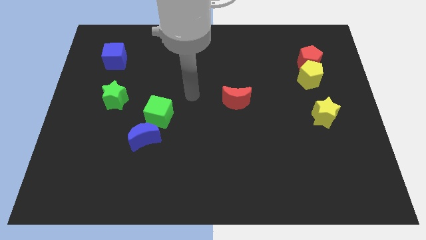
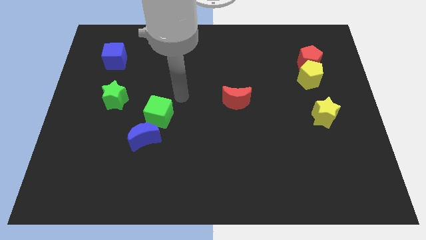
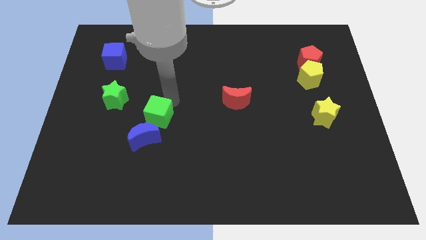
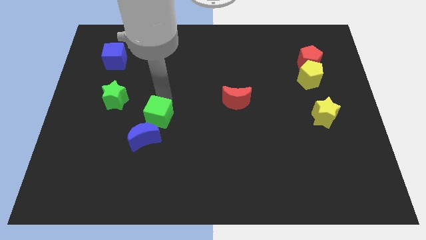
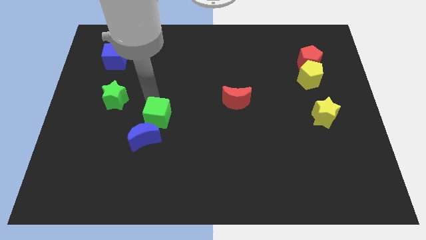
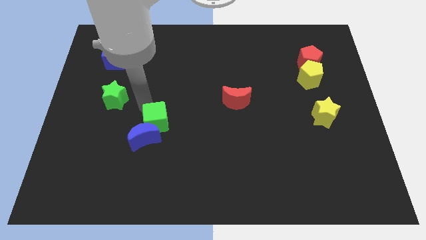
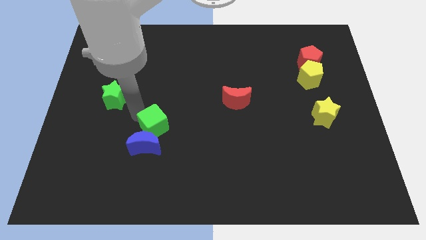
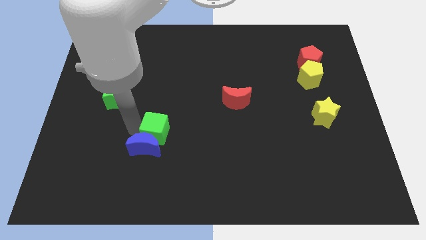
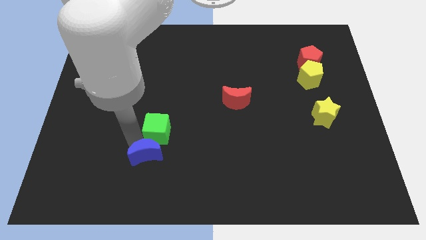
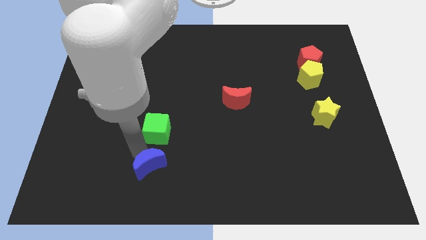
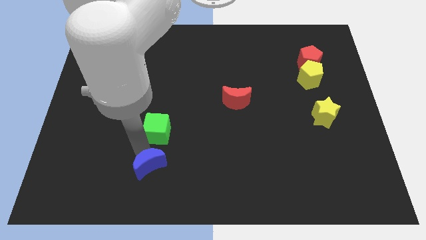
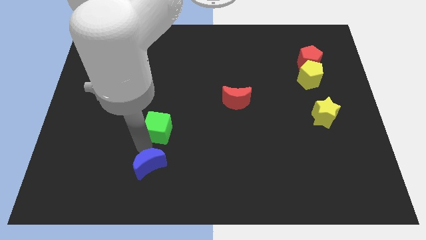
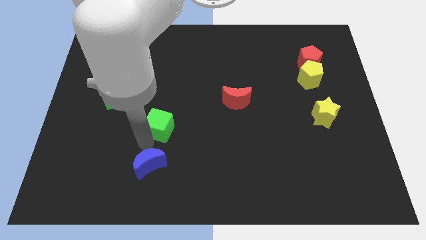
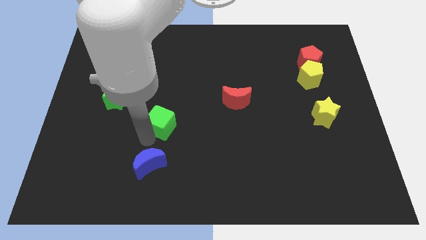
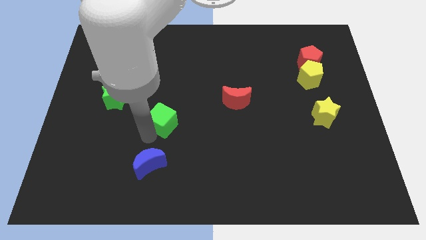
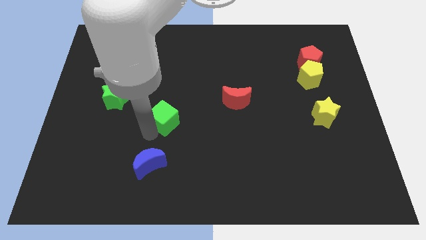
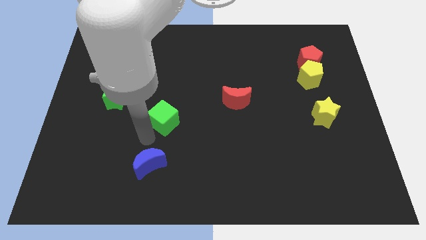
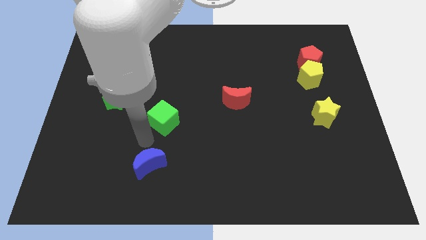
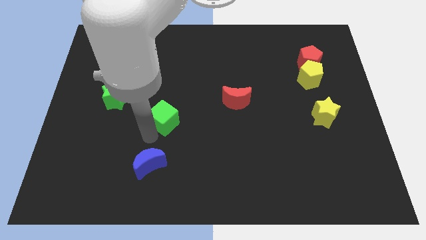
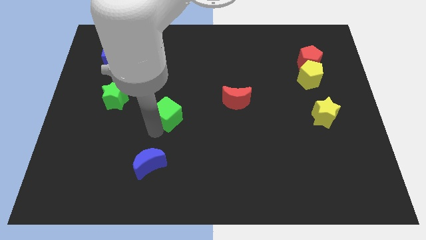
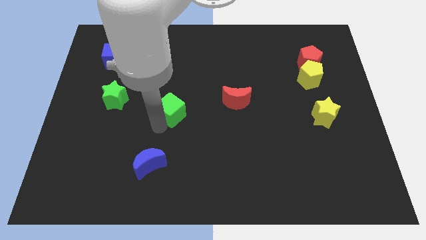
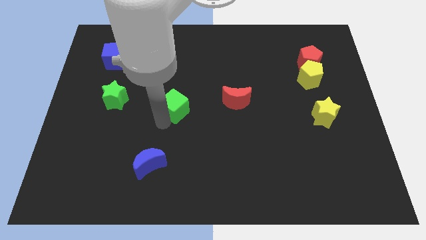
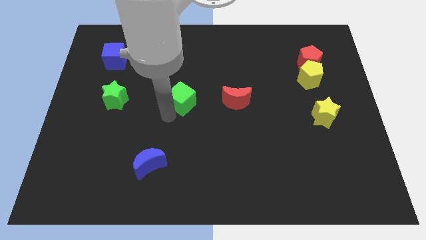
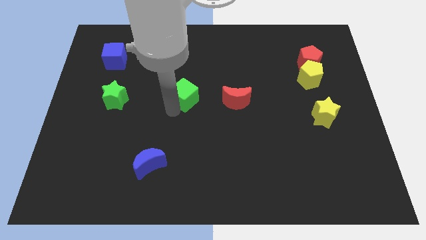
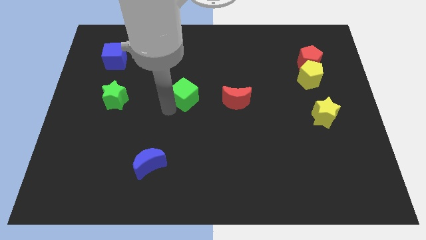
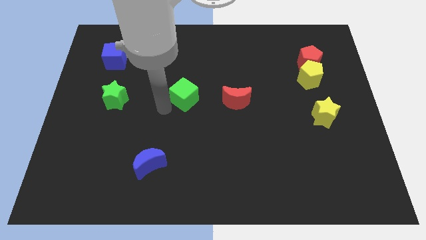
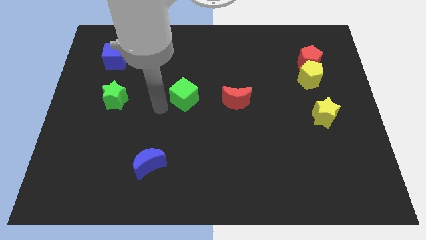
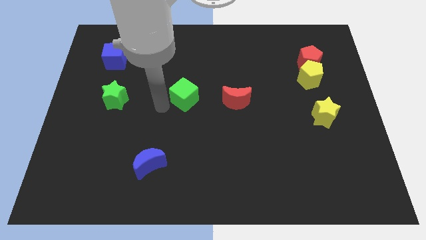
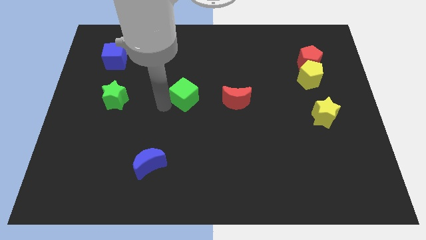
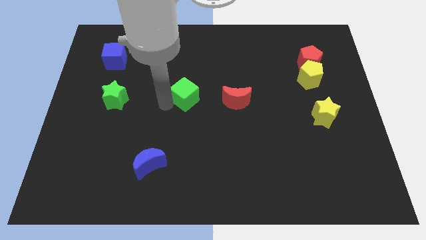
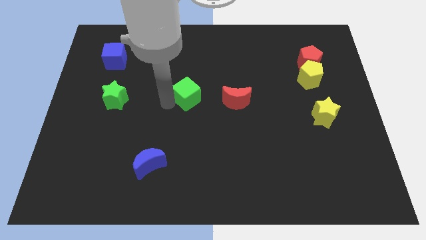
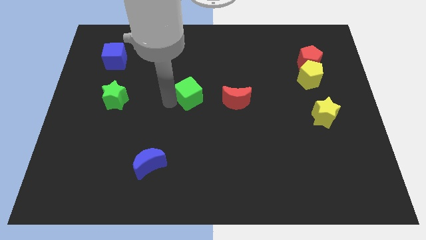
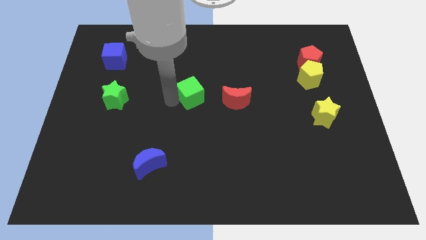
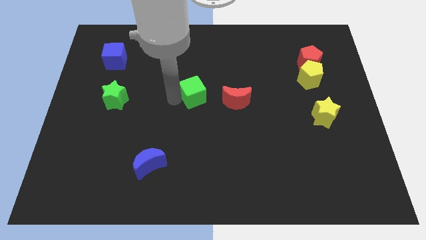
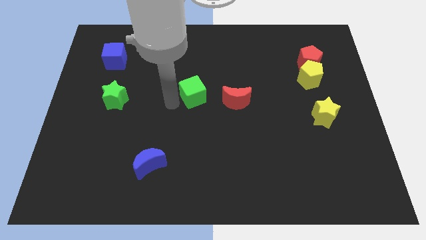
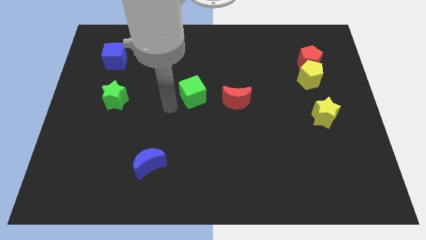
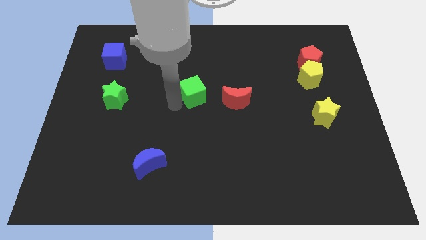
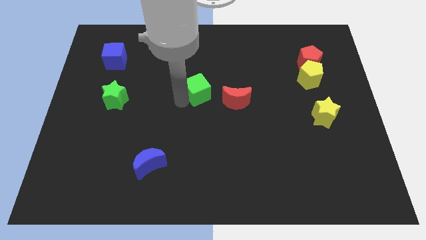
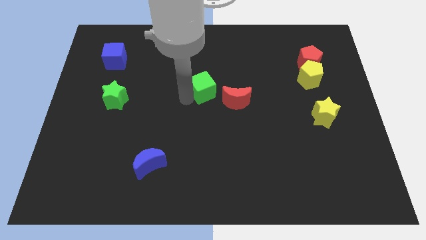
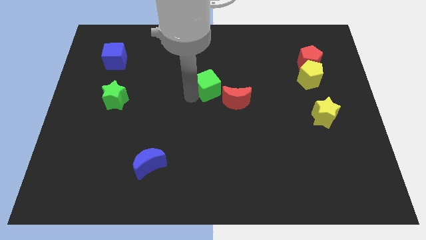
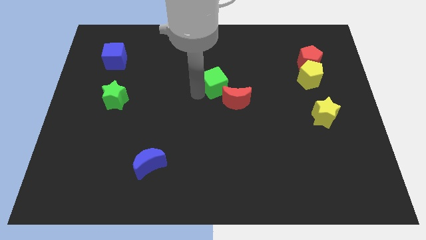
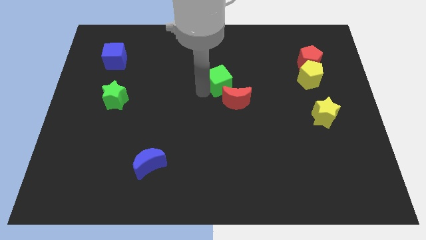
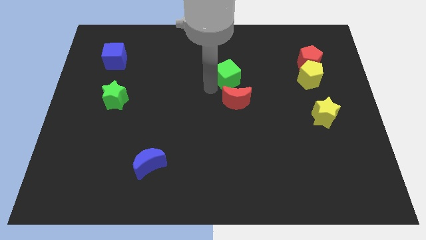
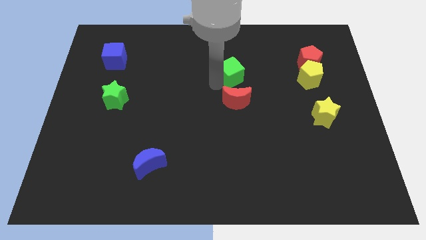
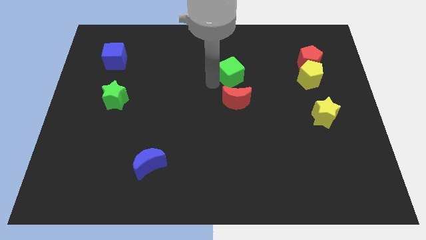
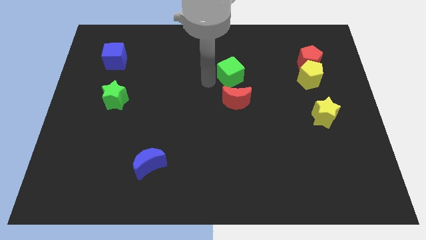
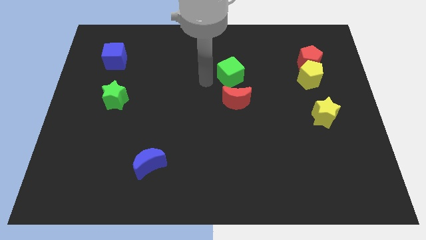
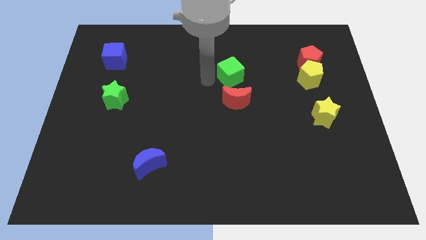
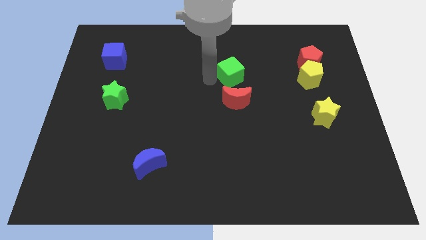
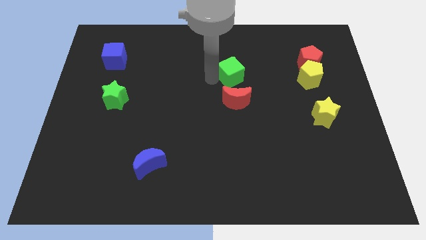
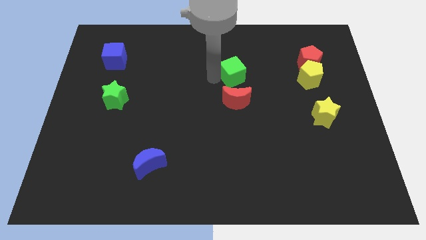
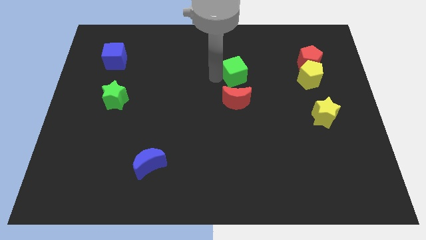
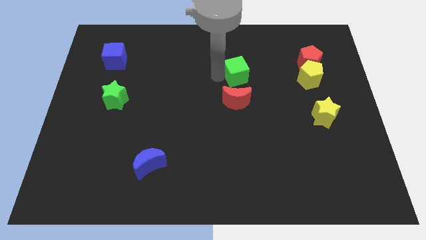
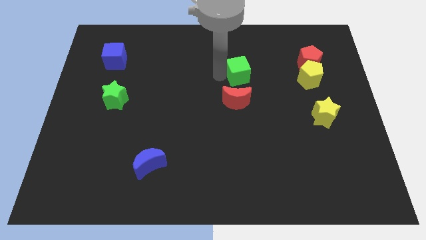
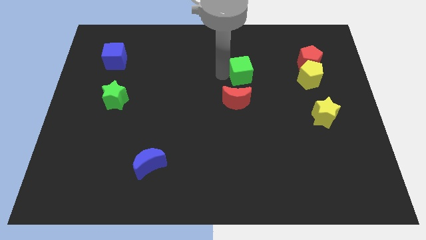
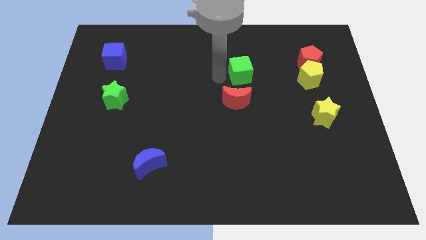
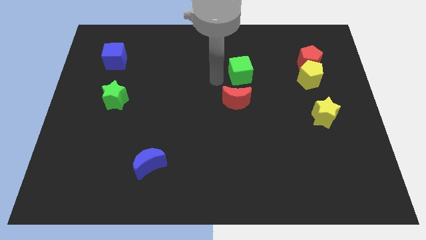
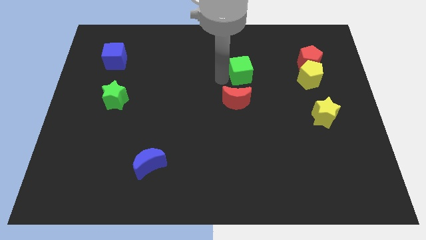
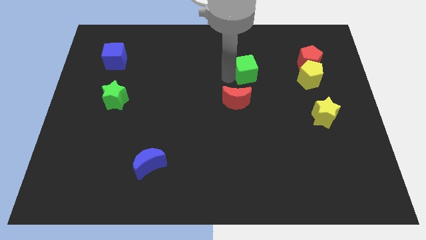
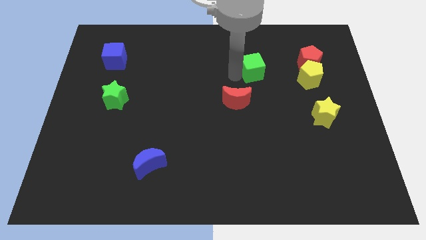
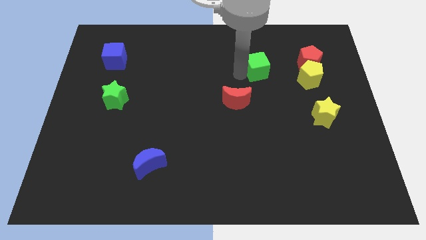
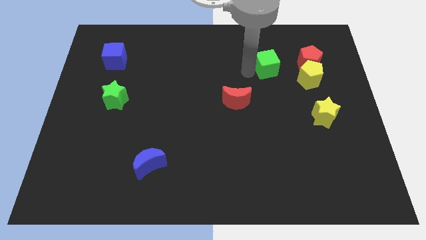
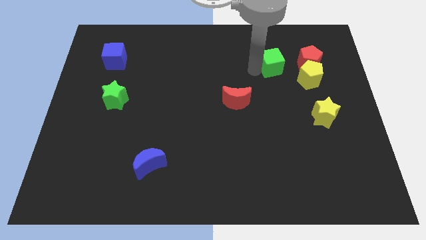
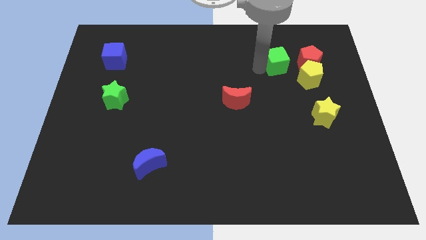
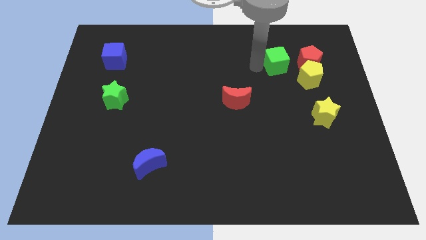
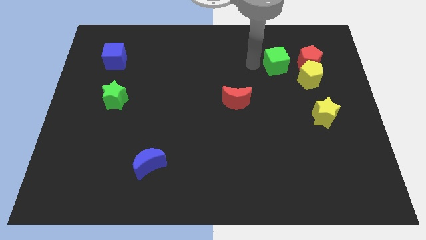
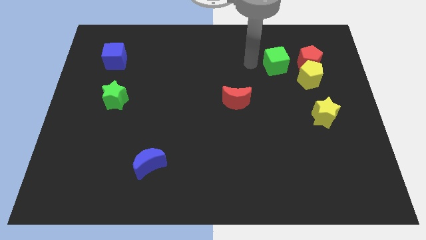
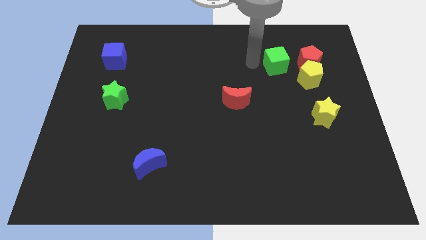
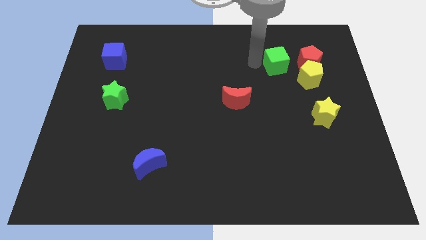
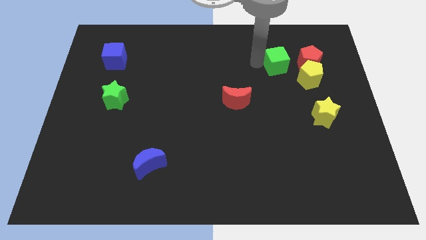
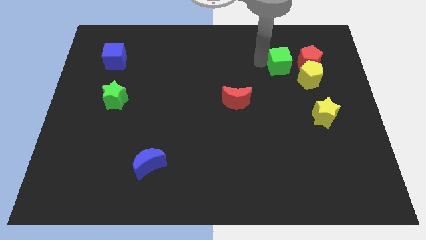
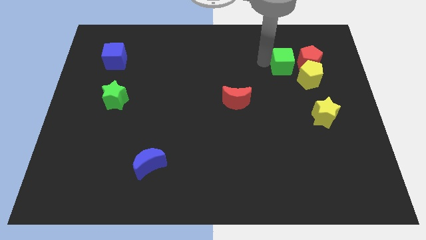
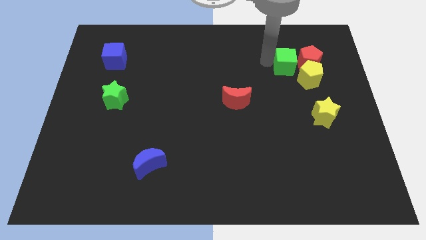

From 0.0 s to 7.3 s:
move the green cube to the red pentagon
